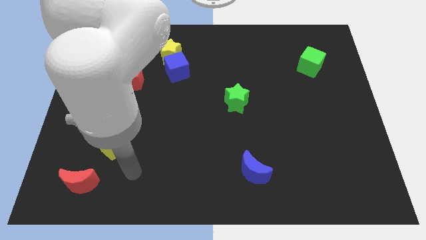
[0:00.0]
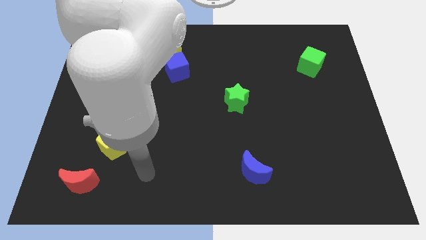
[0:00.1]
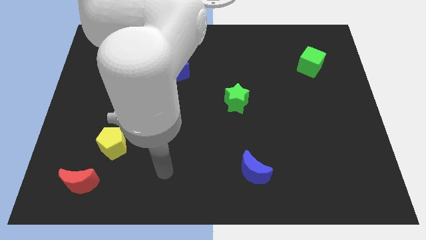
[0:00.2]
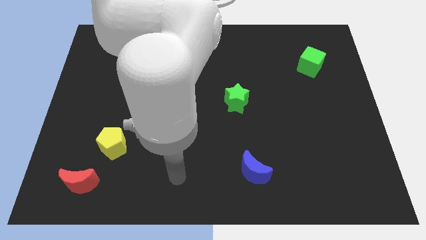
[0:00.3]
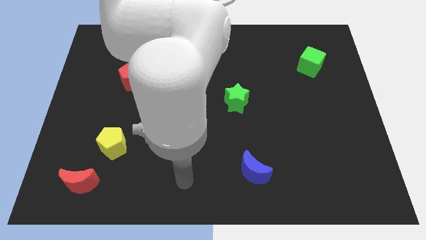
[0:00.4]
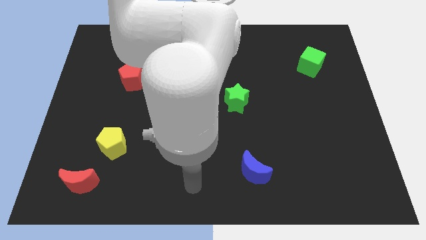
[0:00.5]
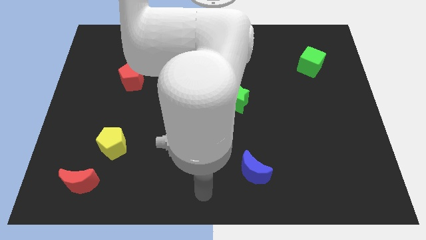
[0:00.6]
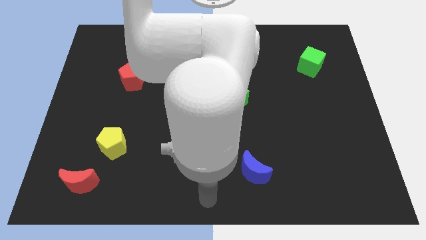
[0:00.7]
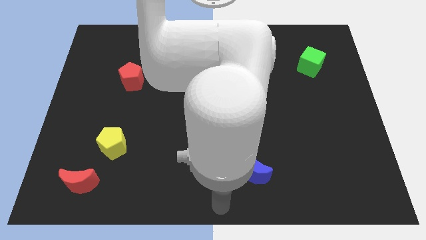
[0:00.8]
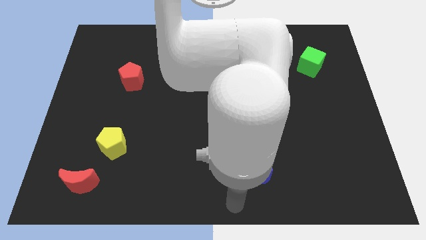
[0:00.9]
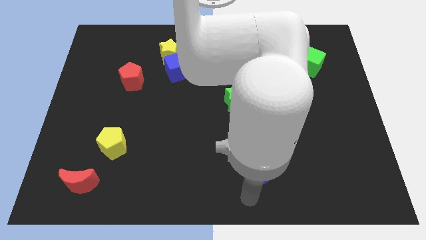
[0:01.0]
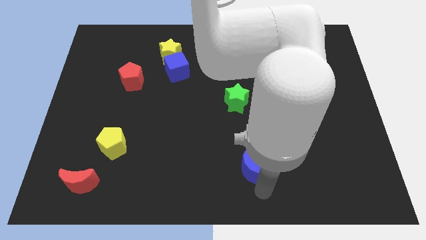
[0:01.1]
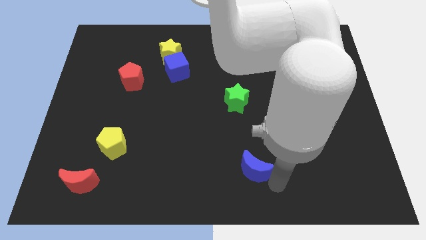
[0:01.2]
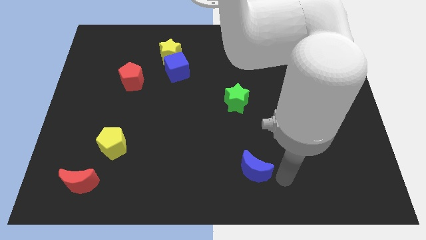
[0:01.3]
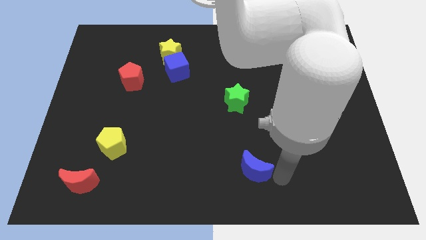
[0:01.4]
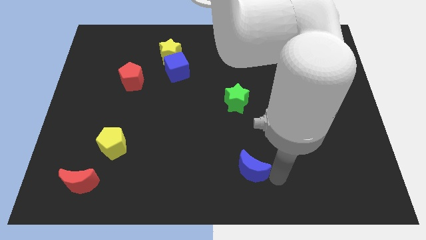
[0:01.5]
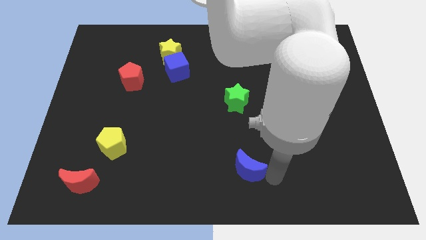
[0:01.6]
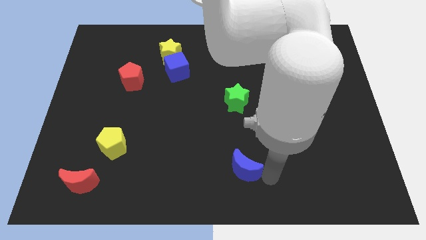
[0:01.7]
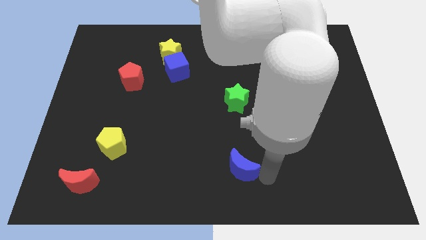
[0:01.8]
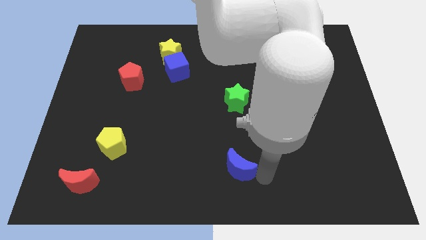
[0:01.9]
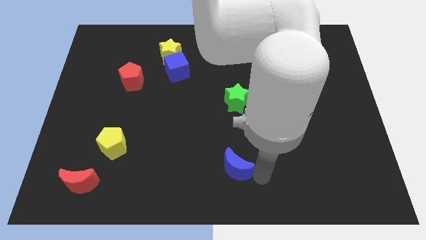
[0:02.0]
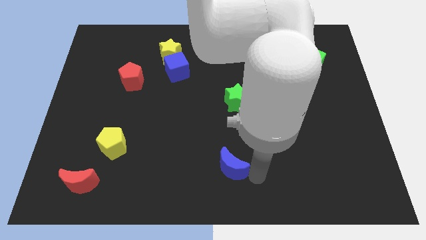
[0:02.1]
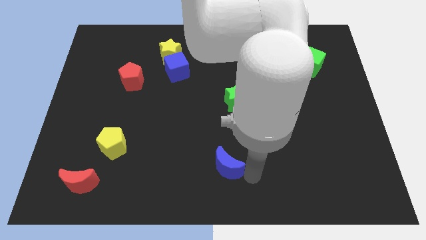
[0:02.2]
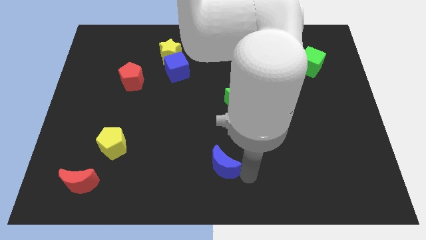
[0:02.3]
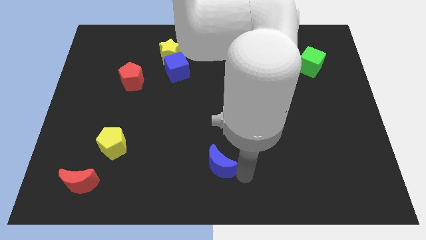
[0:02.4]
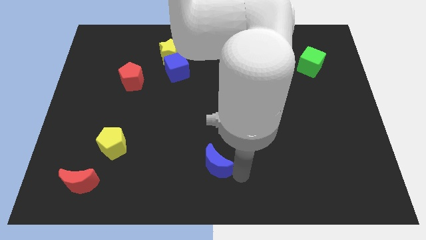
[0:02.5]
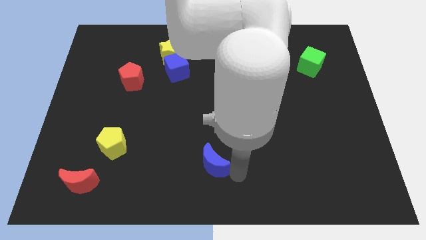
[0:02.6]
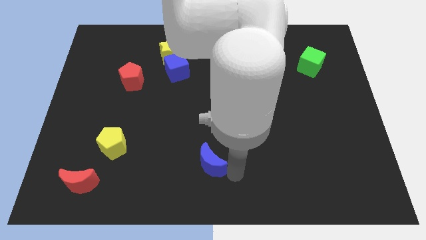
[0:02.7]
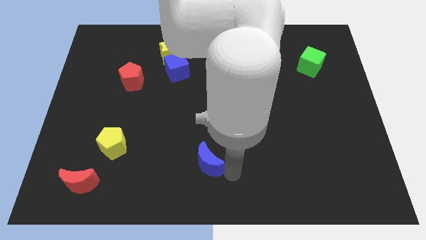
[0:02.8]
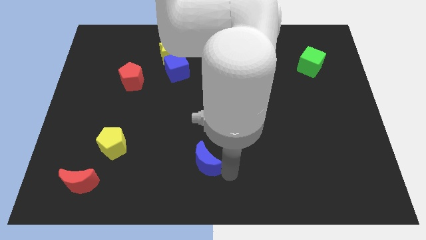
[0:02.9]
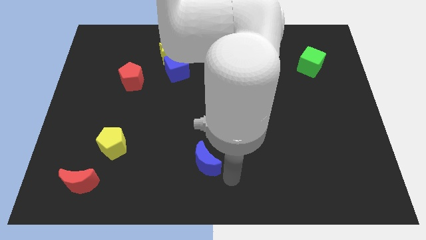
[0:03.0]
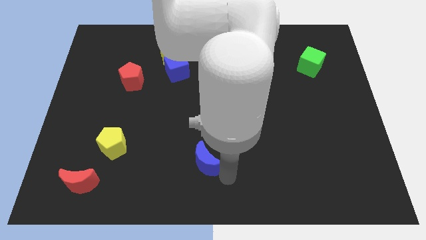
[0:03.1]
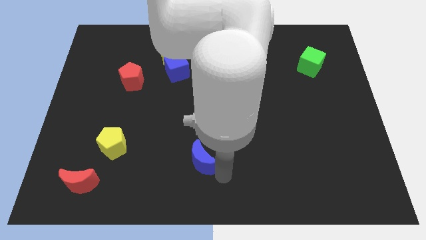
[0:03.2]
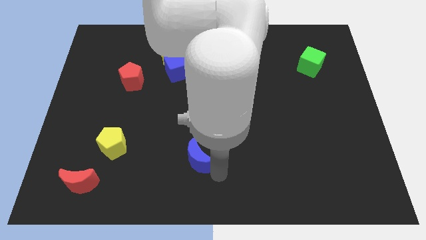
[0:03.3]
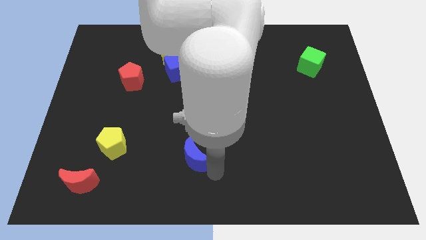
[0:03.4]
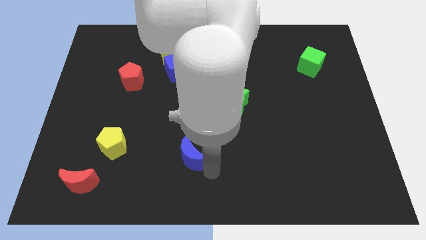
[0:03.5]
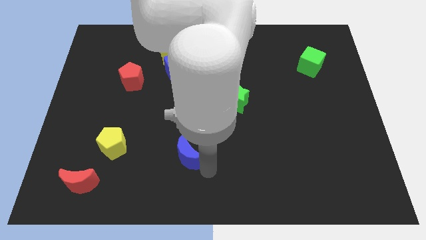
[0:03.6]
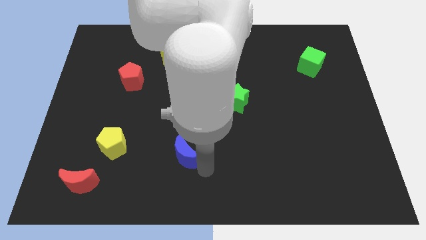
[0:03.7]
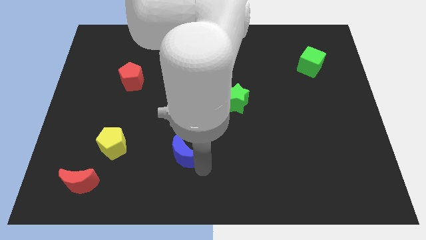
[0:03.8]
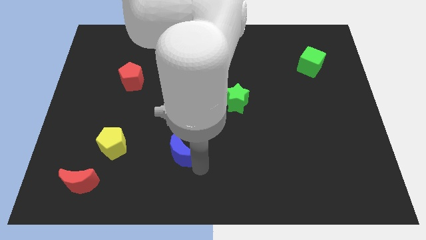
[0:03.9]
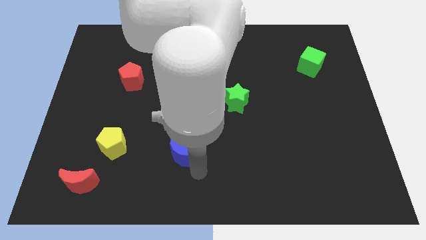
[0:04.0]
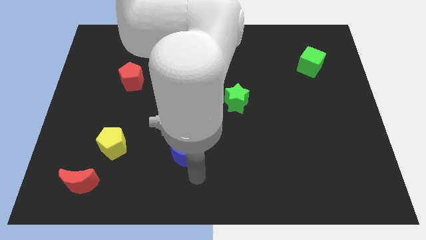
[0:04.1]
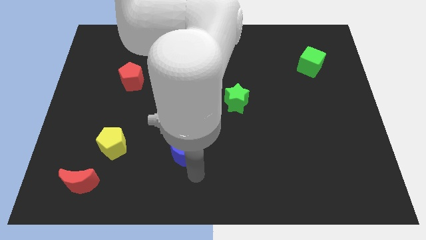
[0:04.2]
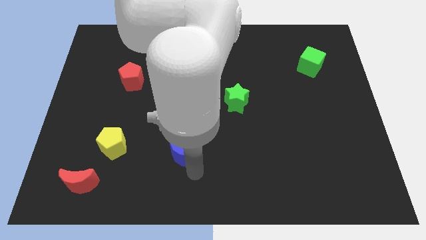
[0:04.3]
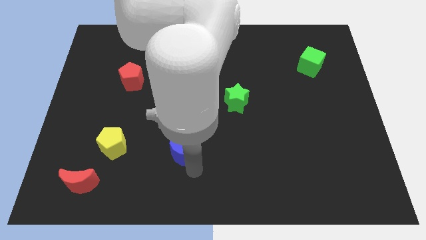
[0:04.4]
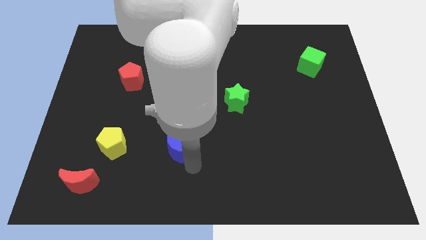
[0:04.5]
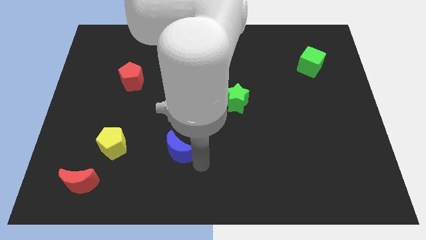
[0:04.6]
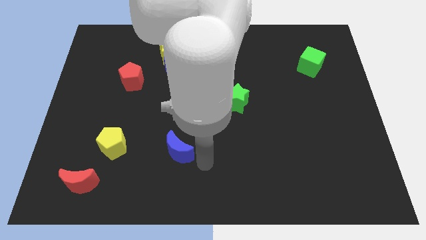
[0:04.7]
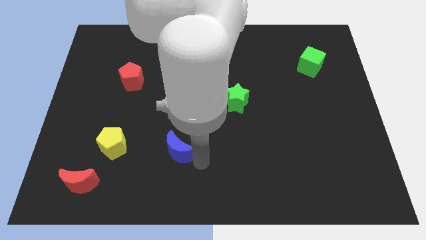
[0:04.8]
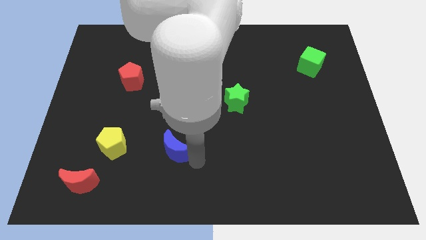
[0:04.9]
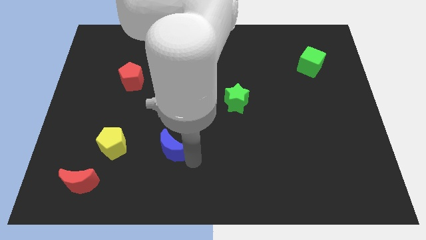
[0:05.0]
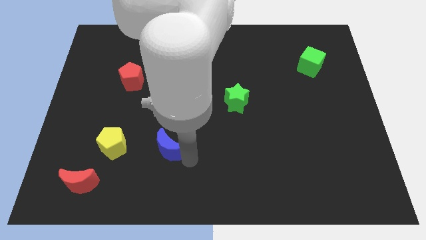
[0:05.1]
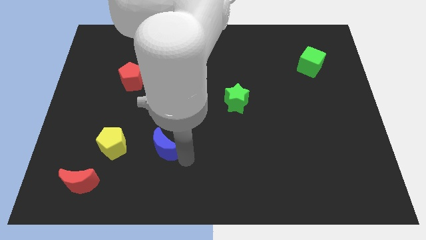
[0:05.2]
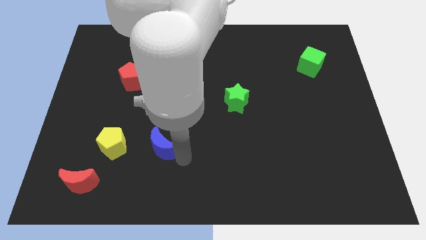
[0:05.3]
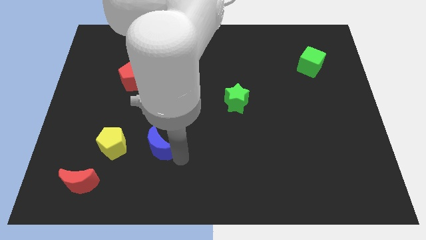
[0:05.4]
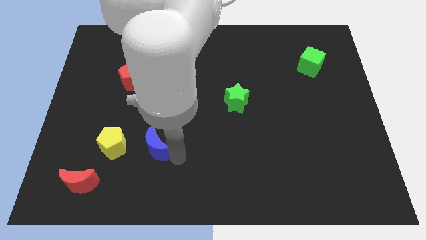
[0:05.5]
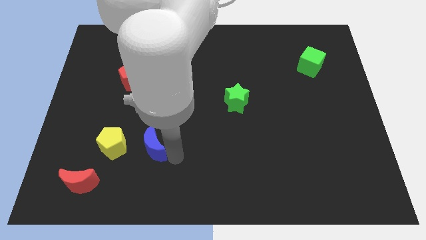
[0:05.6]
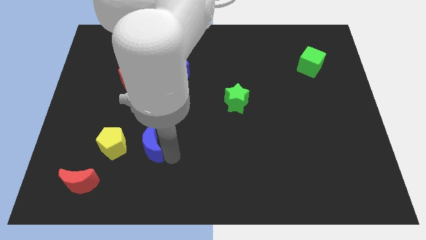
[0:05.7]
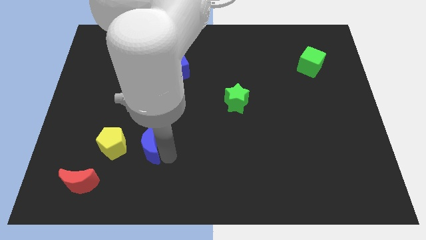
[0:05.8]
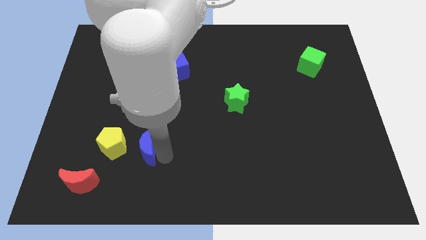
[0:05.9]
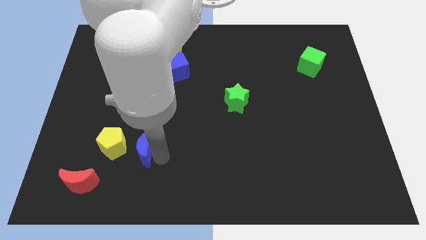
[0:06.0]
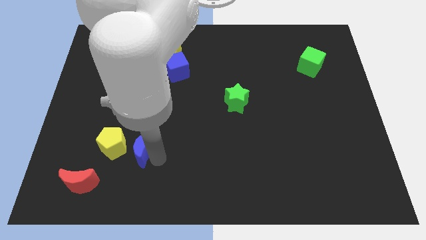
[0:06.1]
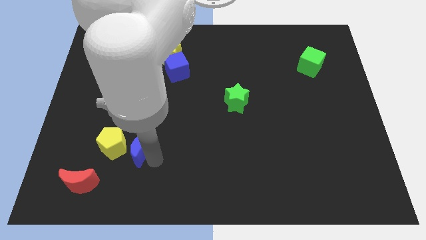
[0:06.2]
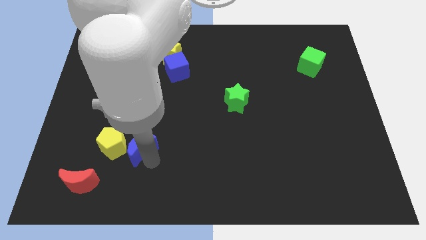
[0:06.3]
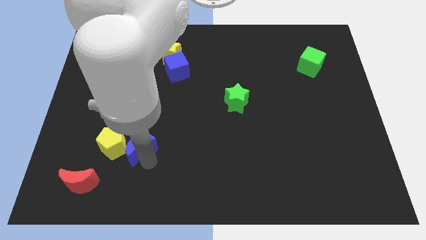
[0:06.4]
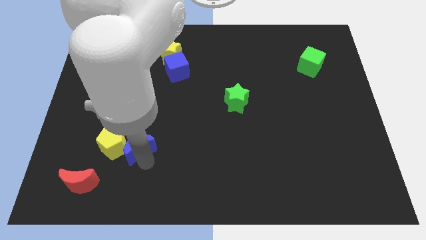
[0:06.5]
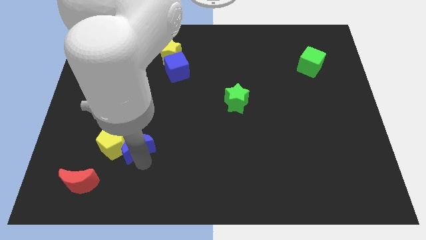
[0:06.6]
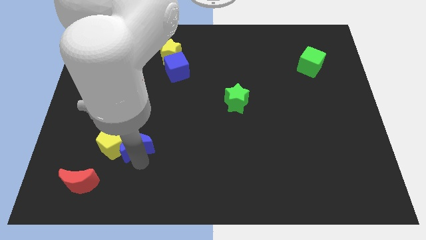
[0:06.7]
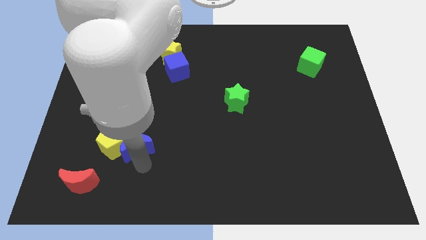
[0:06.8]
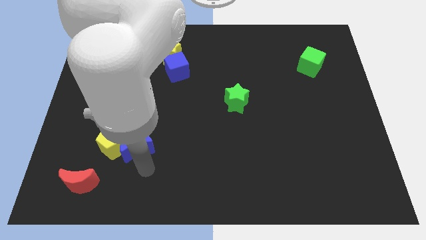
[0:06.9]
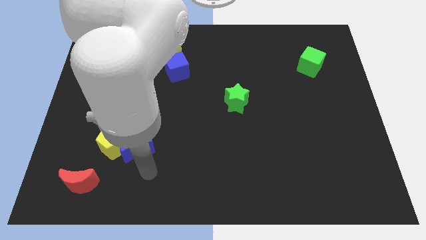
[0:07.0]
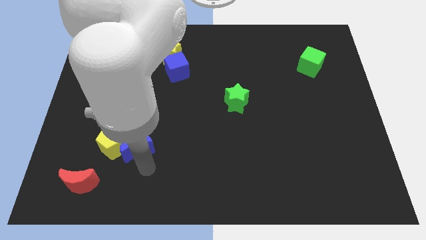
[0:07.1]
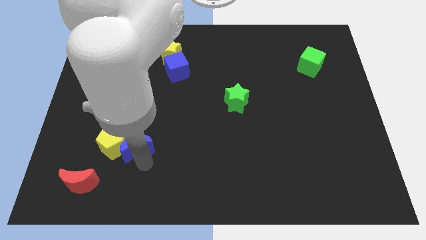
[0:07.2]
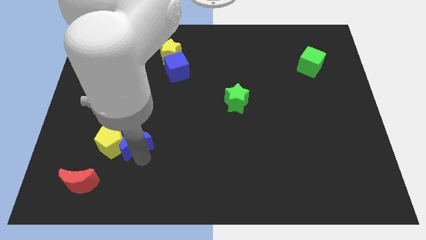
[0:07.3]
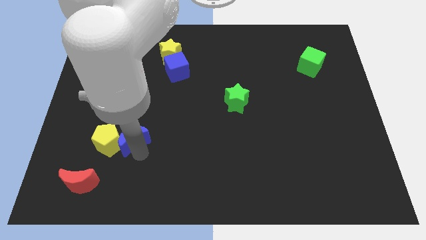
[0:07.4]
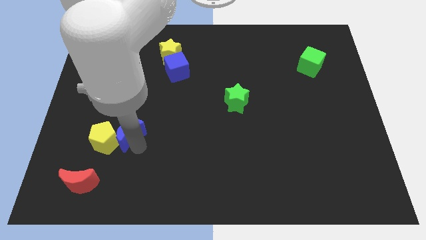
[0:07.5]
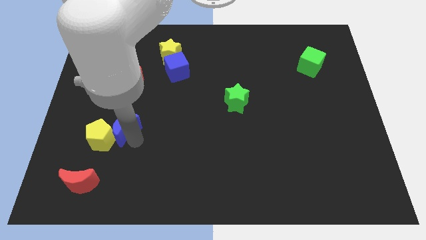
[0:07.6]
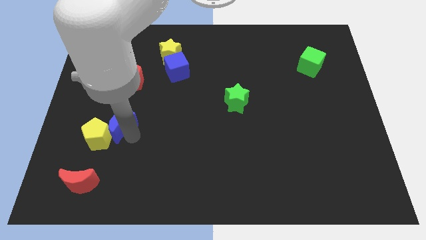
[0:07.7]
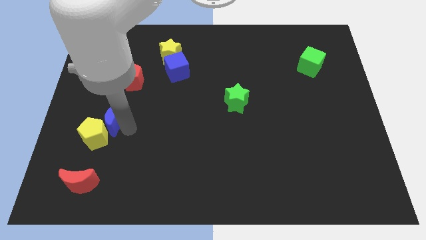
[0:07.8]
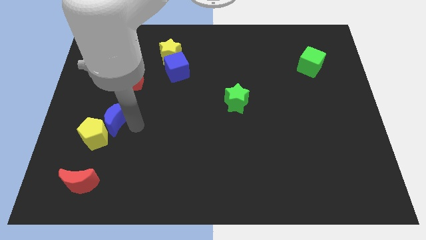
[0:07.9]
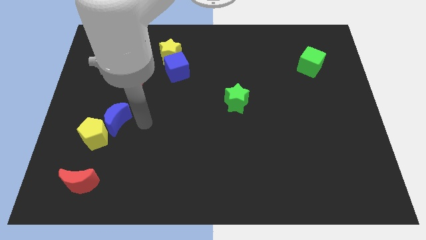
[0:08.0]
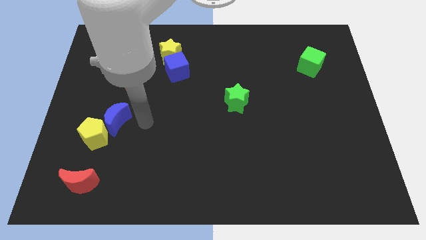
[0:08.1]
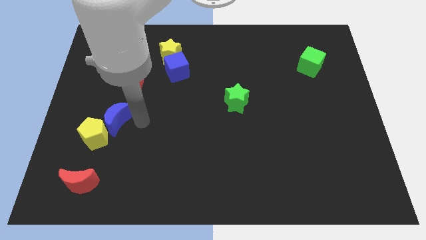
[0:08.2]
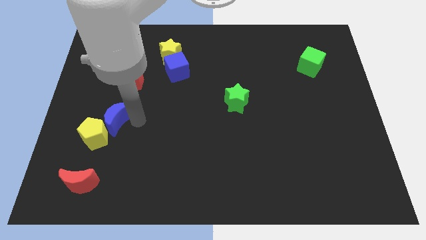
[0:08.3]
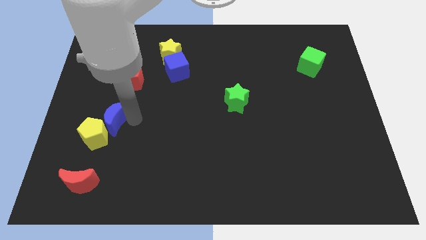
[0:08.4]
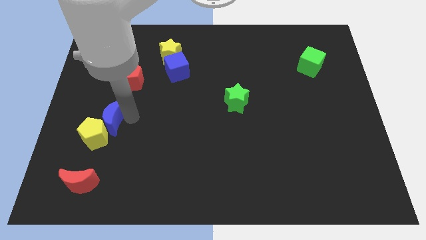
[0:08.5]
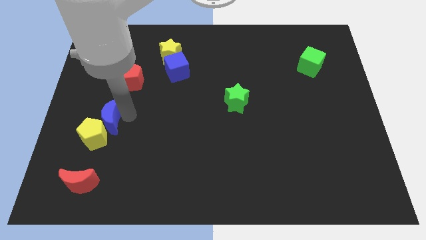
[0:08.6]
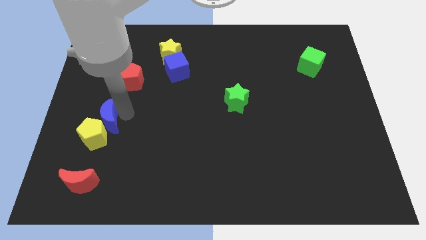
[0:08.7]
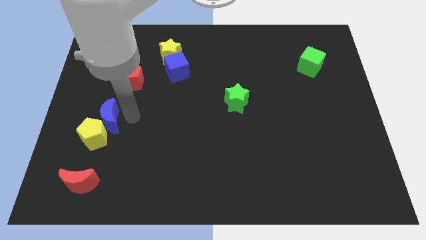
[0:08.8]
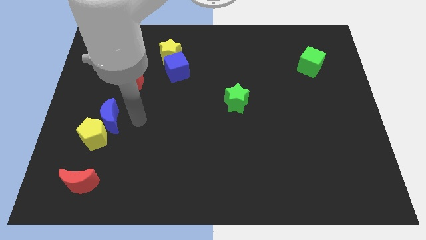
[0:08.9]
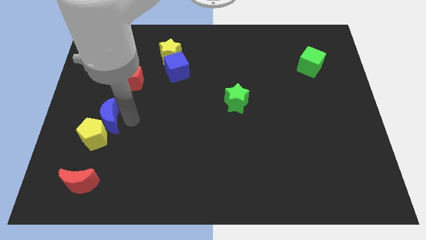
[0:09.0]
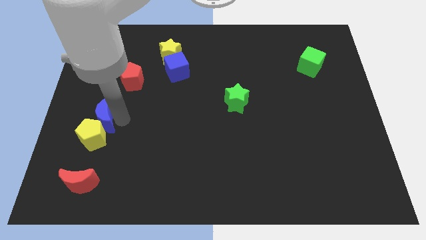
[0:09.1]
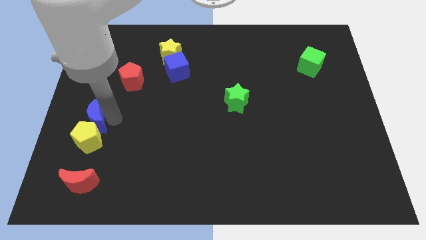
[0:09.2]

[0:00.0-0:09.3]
move the blue moon to the top left of the yellow pentagon
